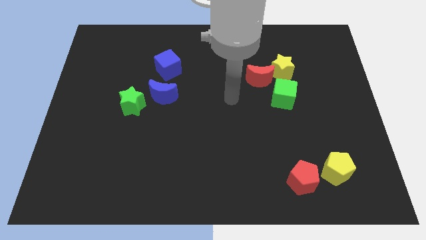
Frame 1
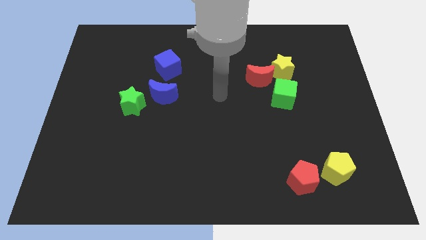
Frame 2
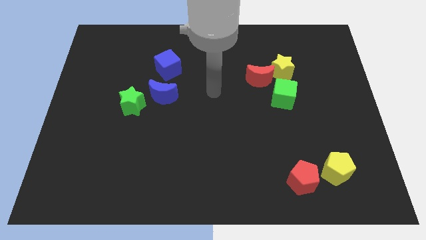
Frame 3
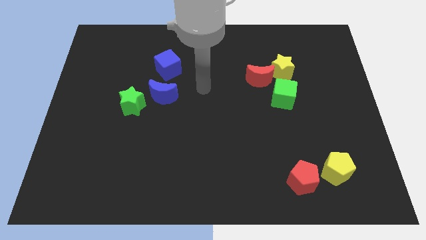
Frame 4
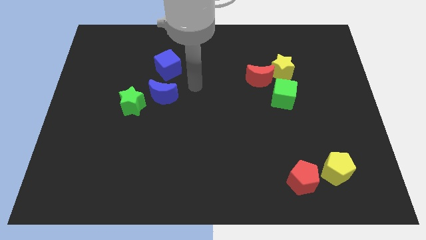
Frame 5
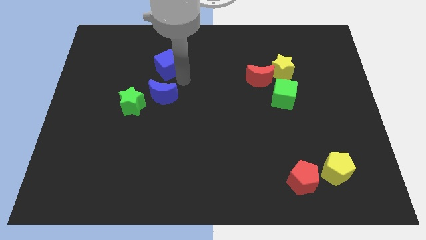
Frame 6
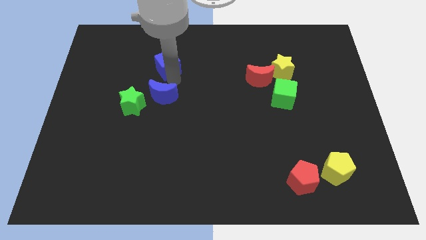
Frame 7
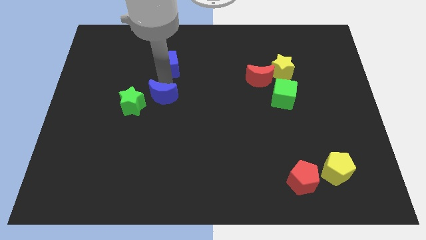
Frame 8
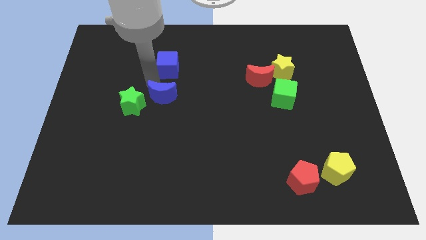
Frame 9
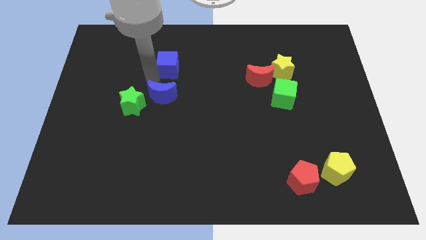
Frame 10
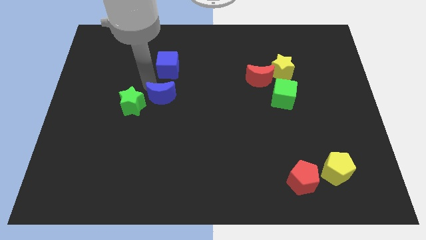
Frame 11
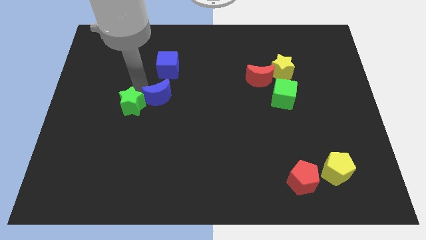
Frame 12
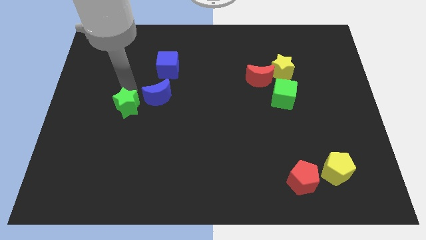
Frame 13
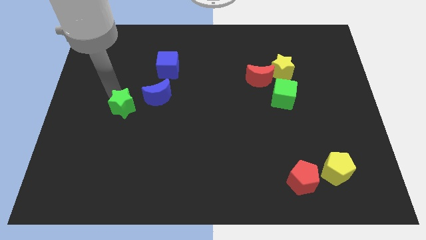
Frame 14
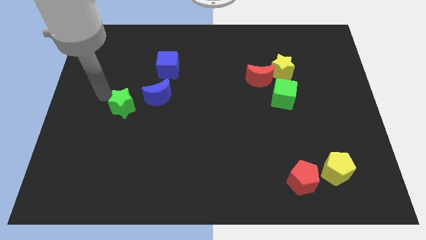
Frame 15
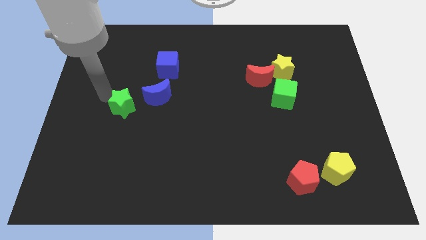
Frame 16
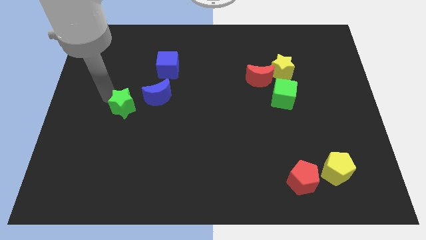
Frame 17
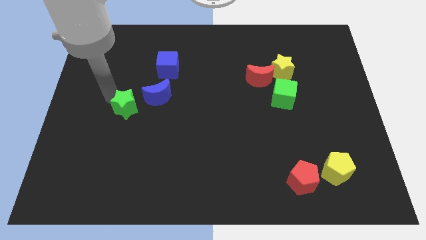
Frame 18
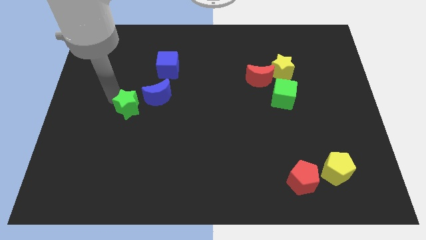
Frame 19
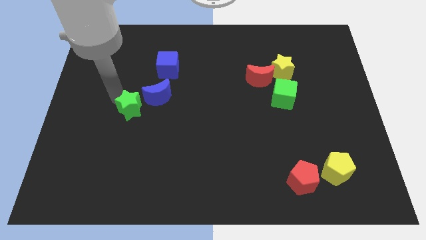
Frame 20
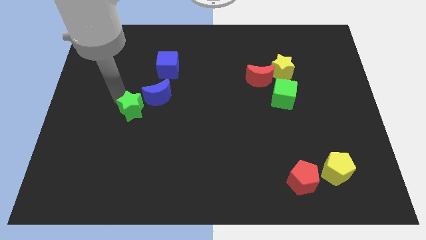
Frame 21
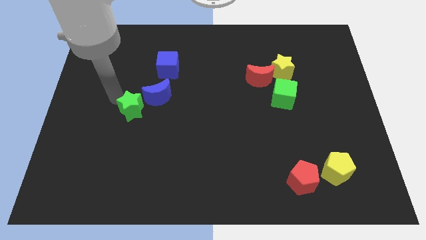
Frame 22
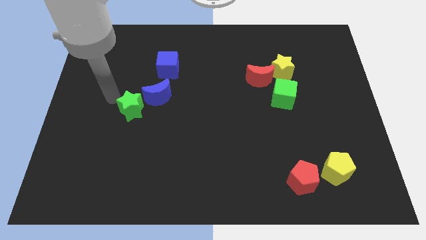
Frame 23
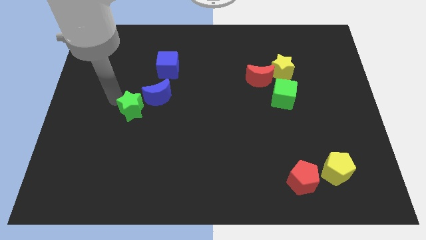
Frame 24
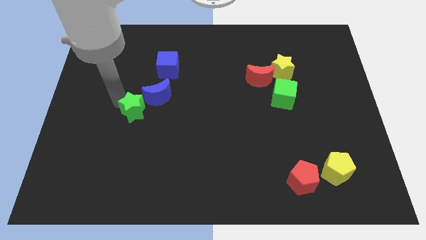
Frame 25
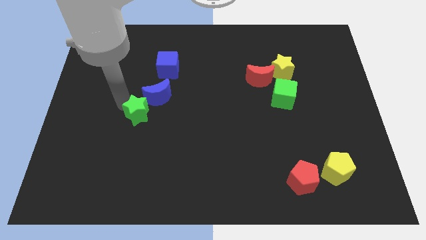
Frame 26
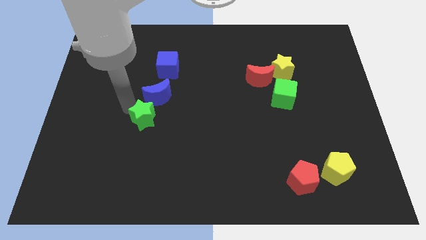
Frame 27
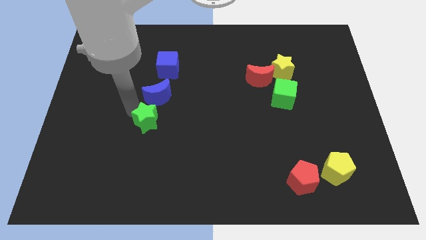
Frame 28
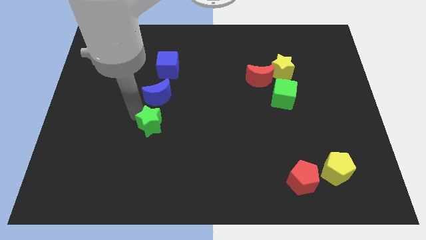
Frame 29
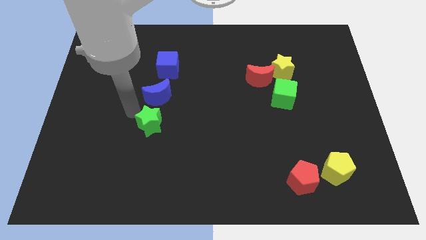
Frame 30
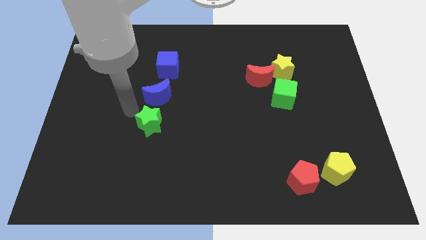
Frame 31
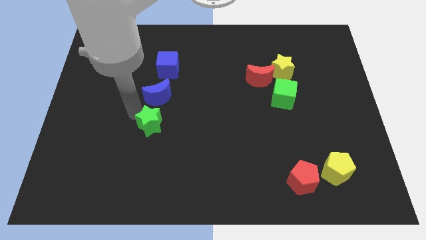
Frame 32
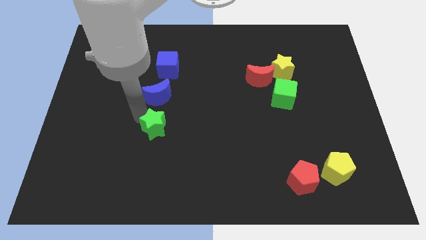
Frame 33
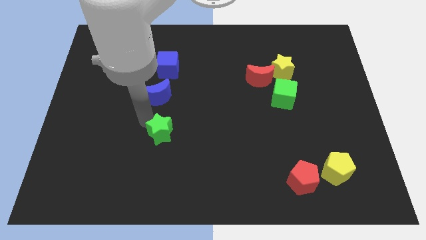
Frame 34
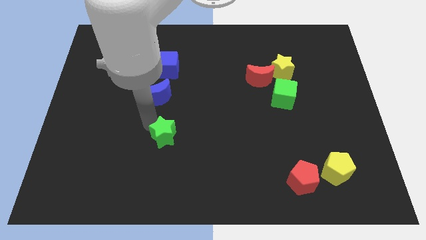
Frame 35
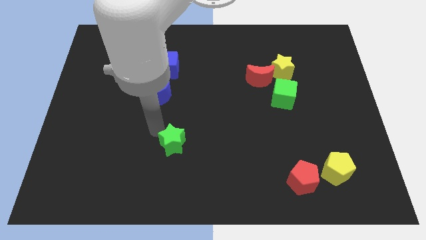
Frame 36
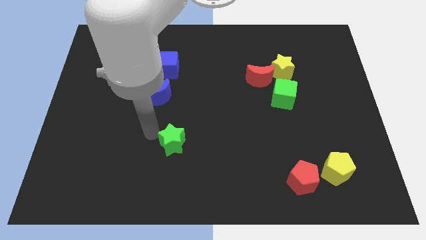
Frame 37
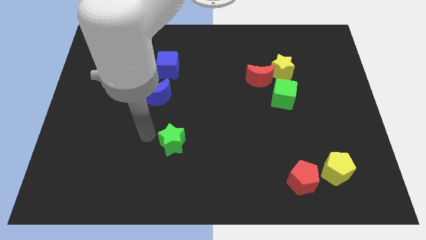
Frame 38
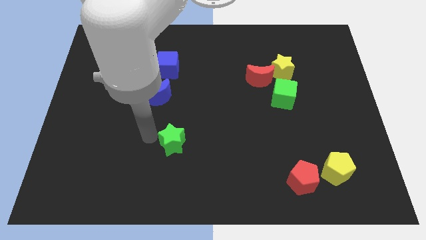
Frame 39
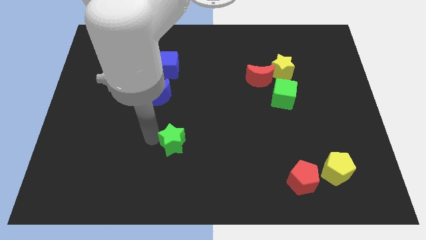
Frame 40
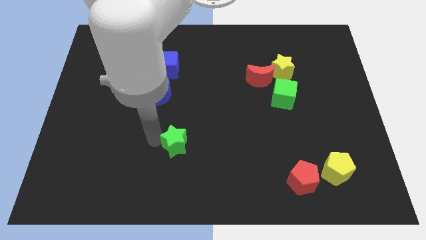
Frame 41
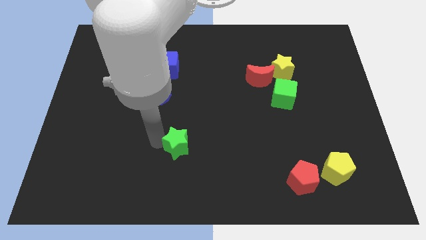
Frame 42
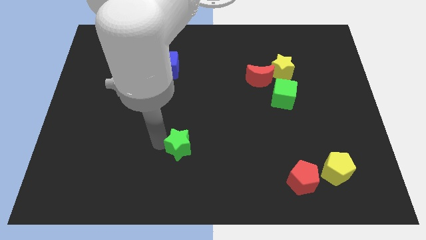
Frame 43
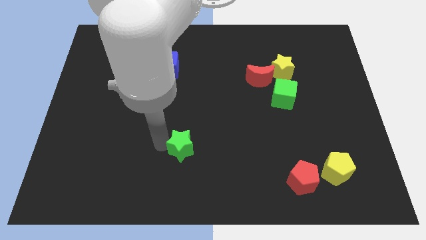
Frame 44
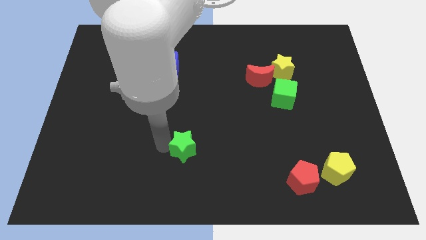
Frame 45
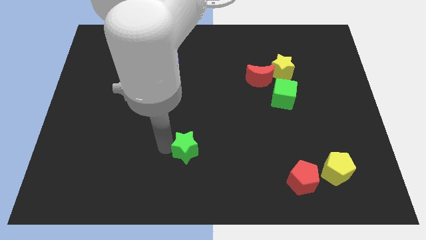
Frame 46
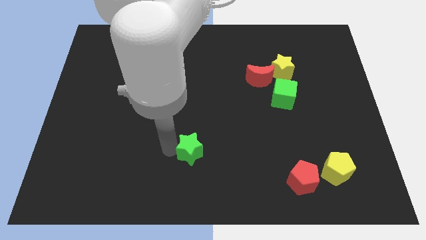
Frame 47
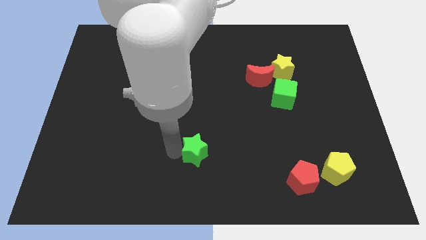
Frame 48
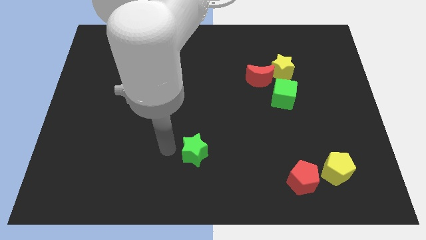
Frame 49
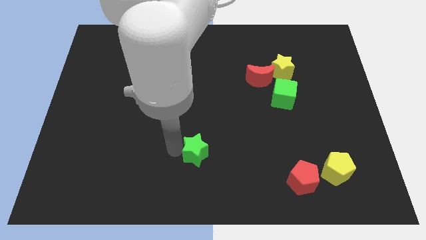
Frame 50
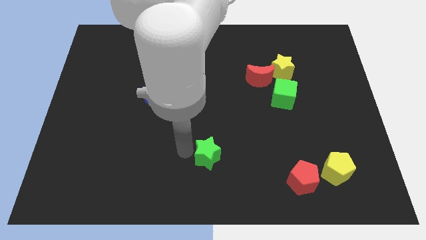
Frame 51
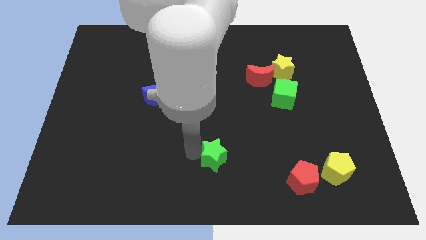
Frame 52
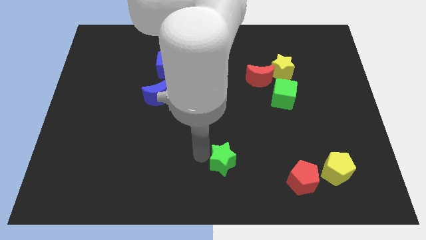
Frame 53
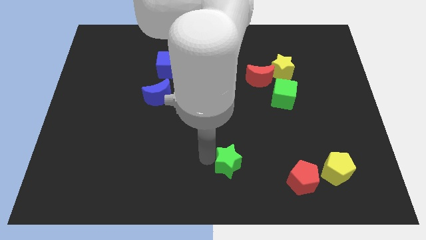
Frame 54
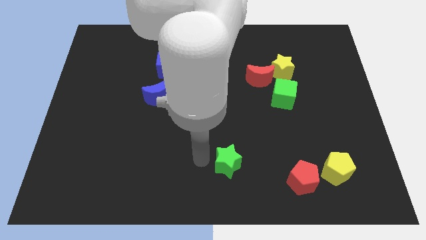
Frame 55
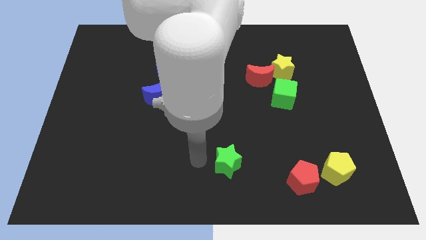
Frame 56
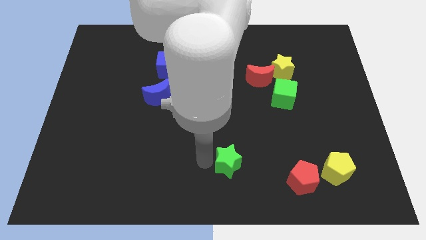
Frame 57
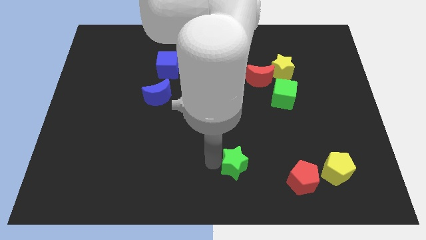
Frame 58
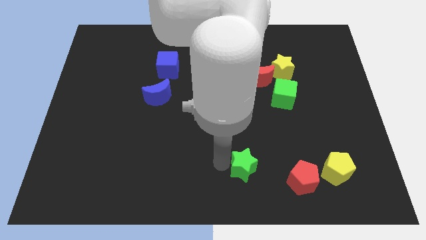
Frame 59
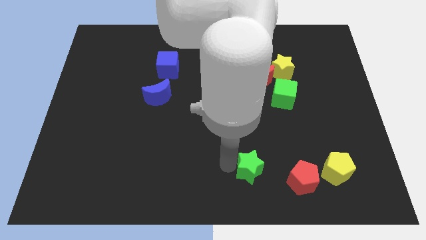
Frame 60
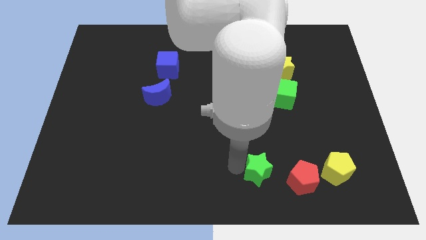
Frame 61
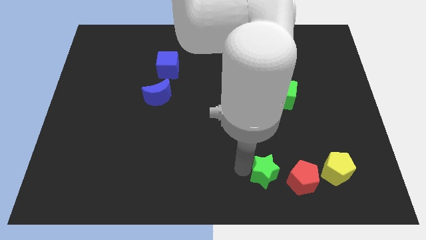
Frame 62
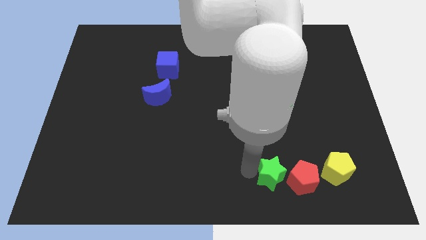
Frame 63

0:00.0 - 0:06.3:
move the green star close to the red pentagon

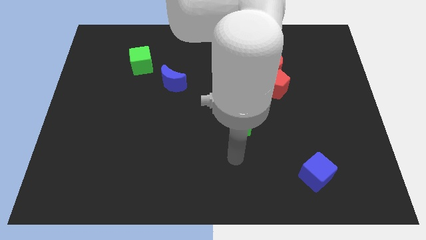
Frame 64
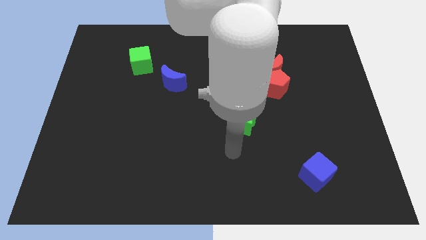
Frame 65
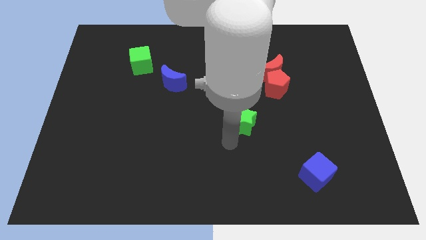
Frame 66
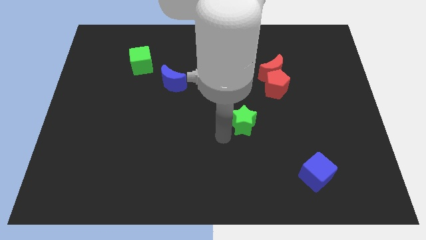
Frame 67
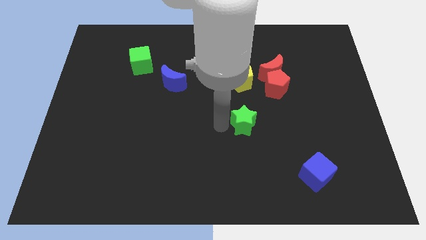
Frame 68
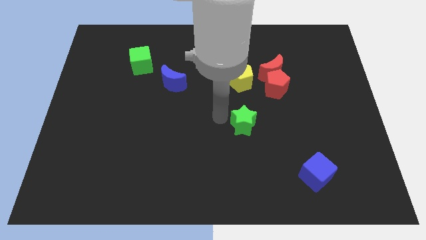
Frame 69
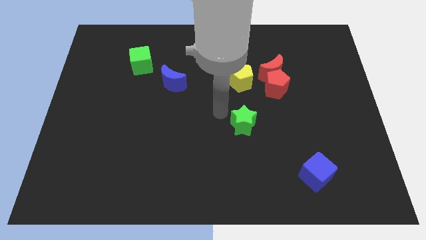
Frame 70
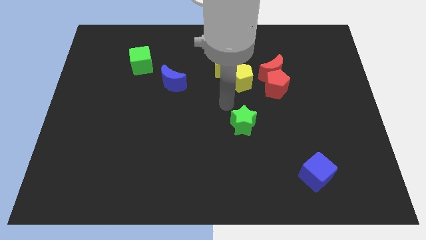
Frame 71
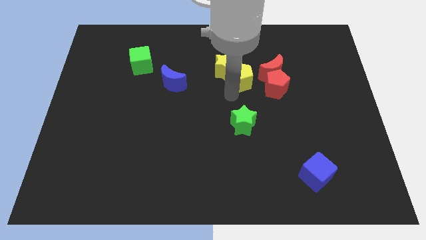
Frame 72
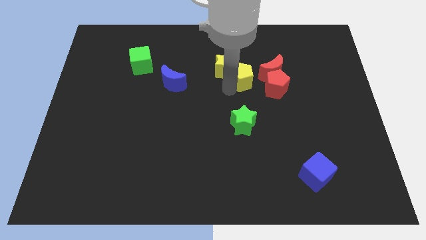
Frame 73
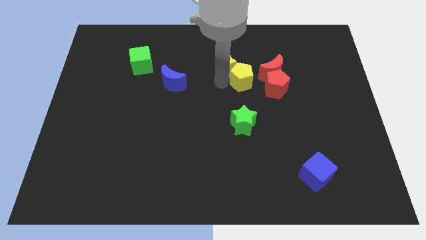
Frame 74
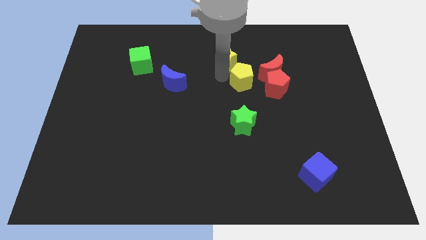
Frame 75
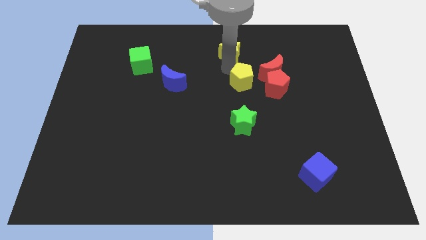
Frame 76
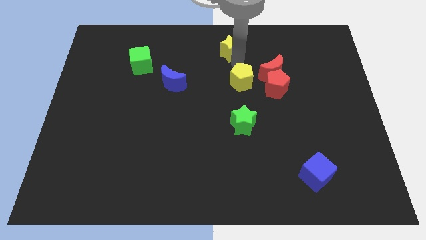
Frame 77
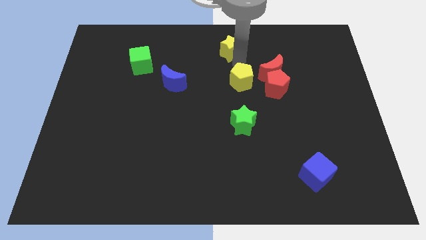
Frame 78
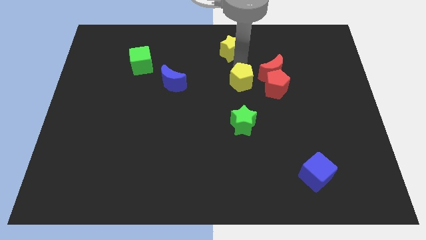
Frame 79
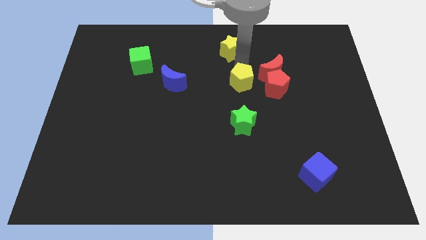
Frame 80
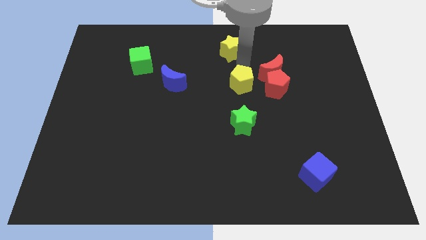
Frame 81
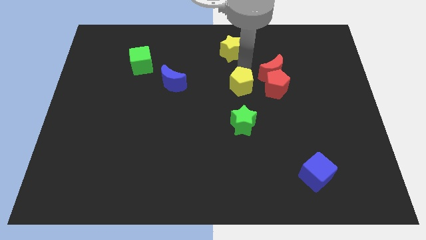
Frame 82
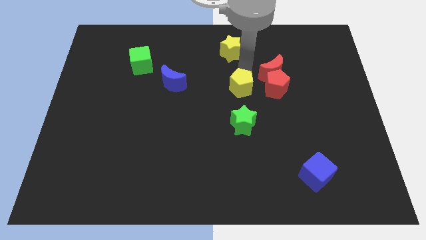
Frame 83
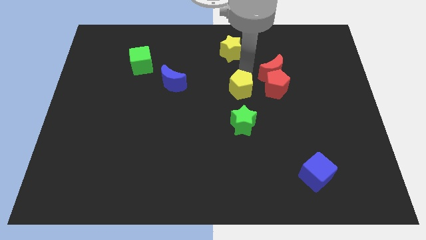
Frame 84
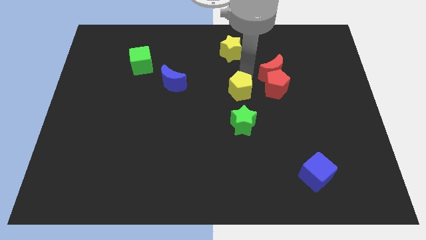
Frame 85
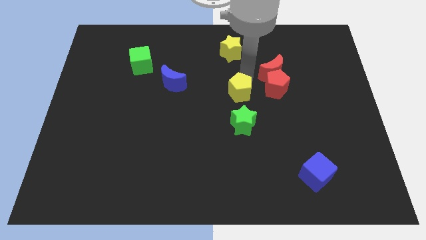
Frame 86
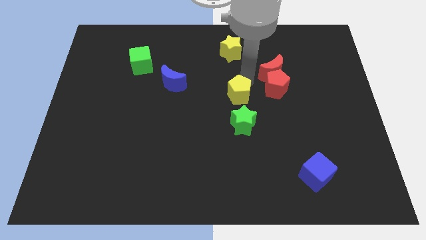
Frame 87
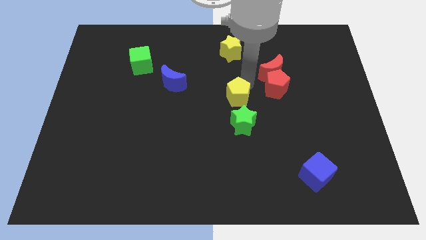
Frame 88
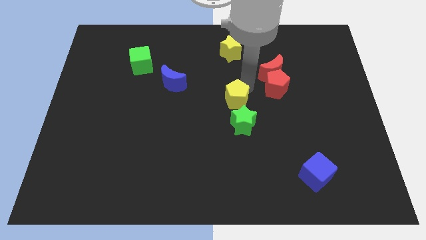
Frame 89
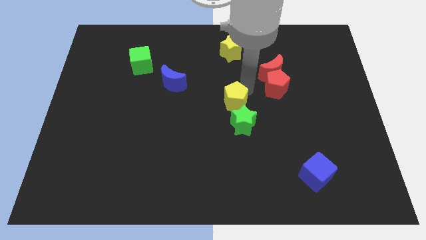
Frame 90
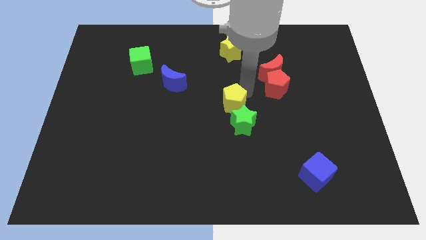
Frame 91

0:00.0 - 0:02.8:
move the yellow pentagon close to the green star
